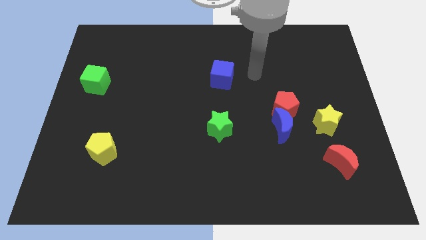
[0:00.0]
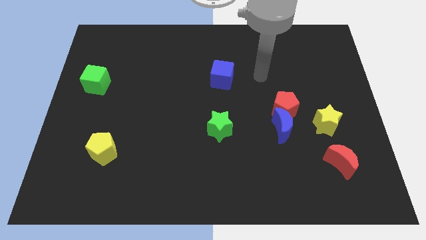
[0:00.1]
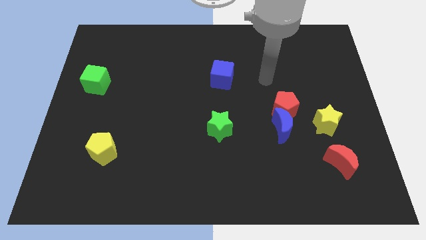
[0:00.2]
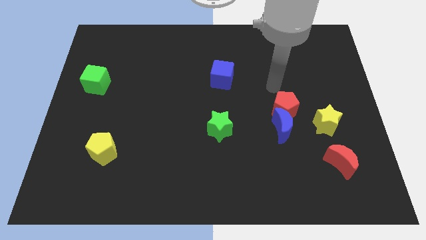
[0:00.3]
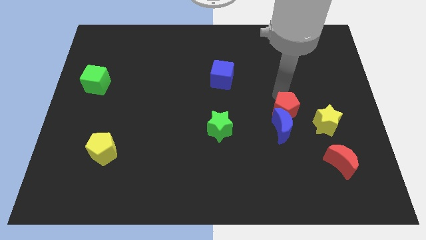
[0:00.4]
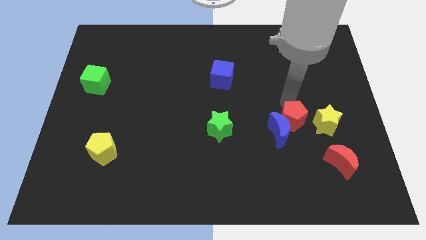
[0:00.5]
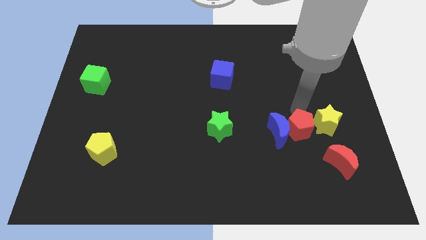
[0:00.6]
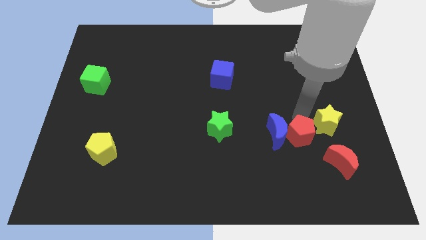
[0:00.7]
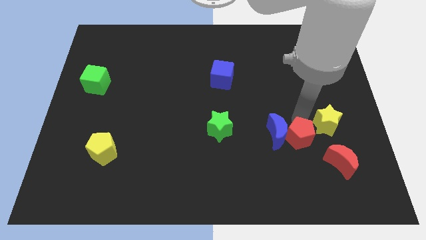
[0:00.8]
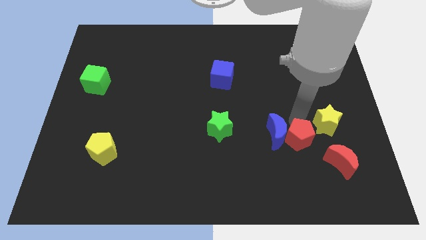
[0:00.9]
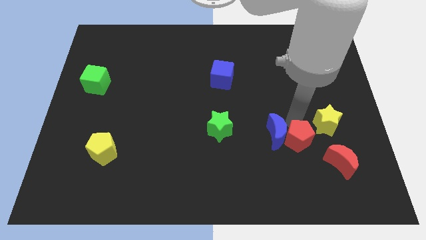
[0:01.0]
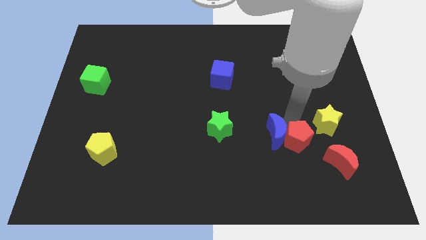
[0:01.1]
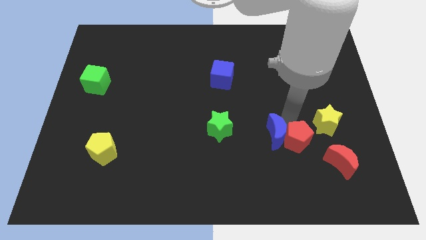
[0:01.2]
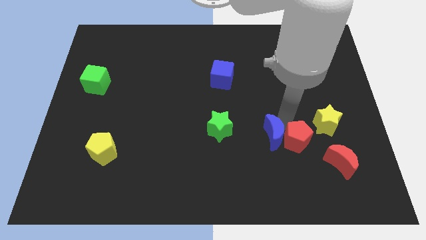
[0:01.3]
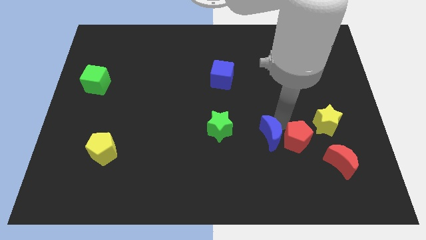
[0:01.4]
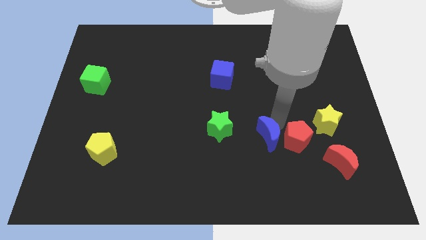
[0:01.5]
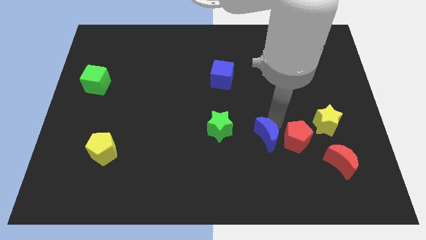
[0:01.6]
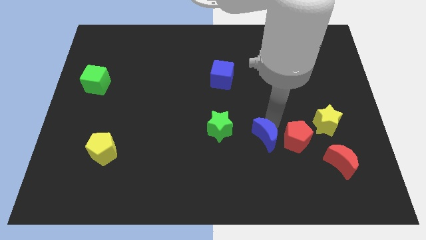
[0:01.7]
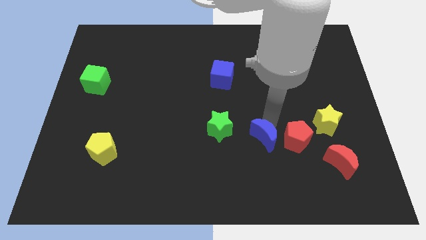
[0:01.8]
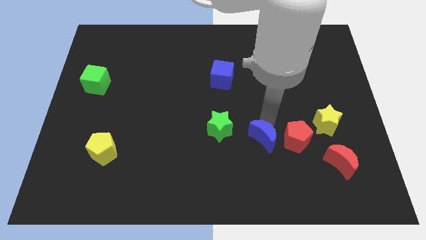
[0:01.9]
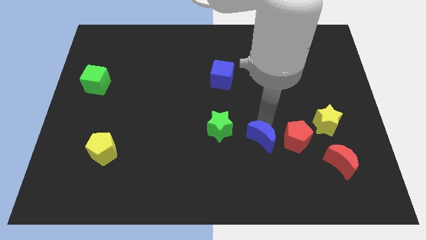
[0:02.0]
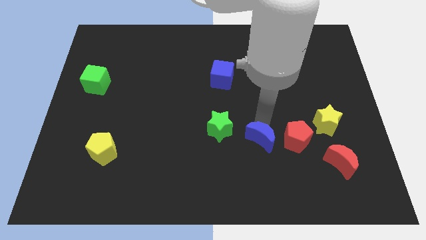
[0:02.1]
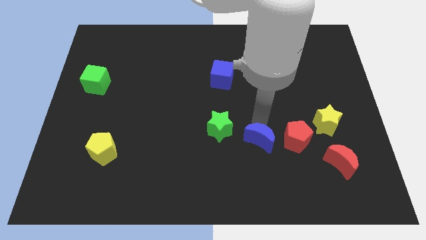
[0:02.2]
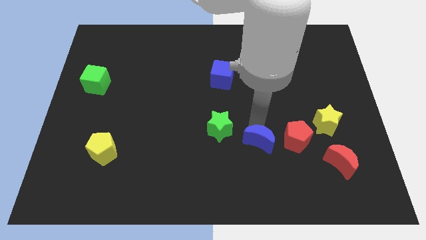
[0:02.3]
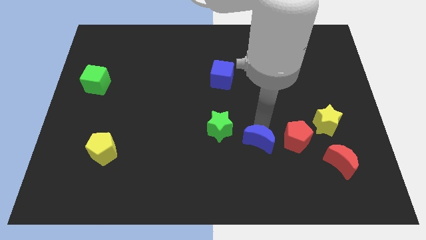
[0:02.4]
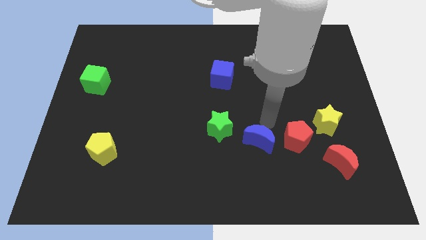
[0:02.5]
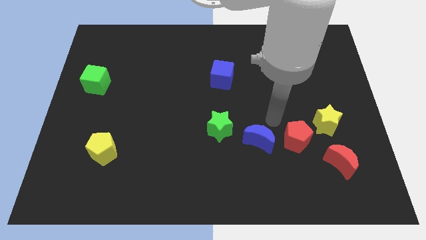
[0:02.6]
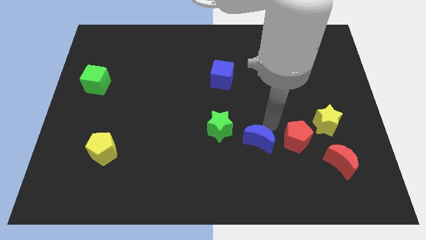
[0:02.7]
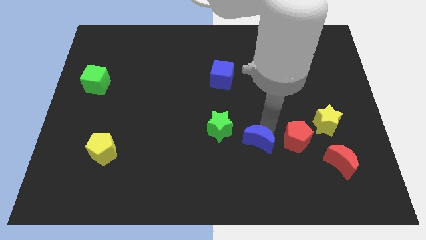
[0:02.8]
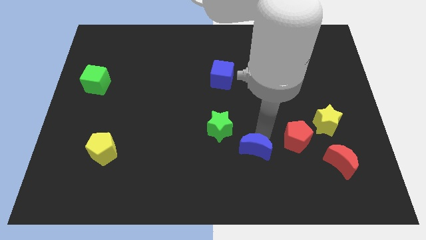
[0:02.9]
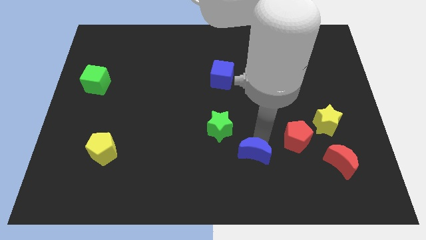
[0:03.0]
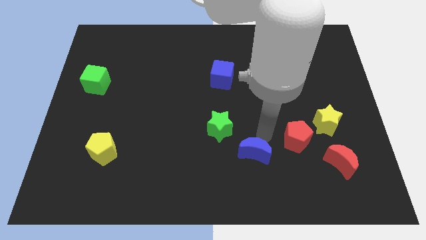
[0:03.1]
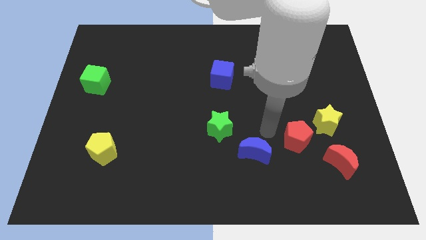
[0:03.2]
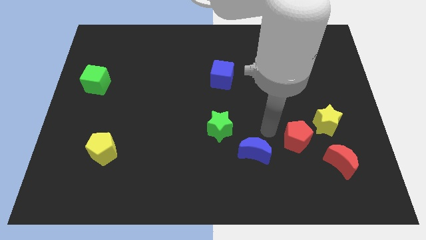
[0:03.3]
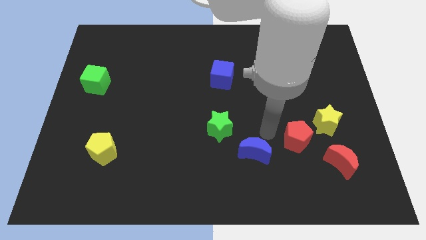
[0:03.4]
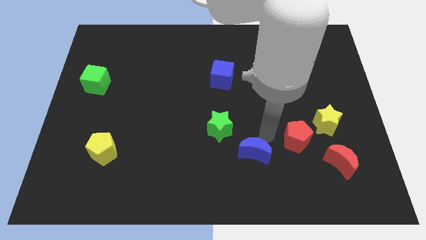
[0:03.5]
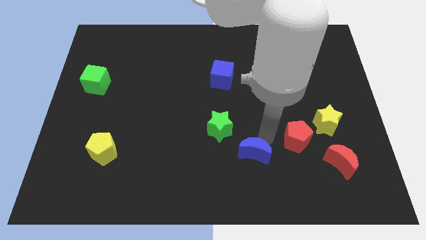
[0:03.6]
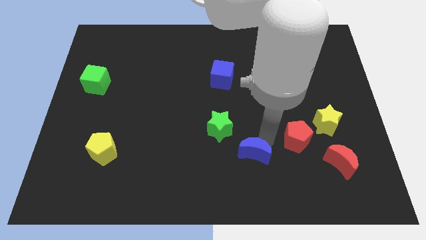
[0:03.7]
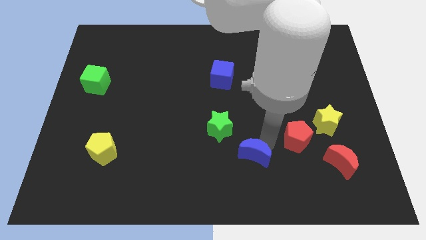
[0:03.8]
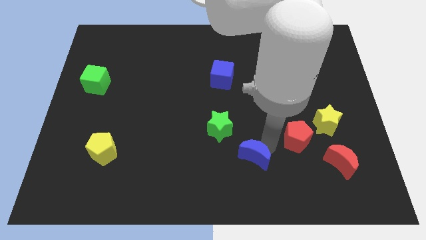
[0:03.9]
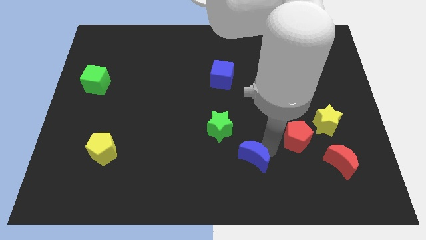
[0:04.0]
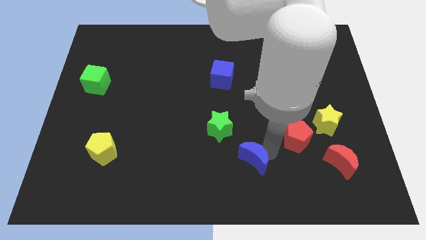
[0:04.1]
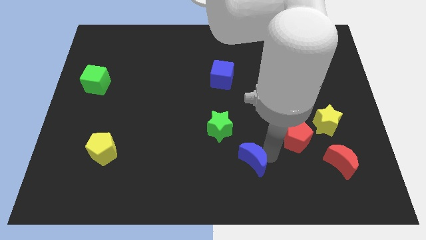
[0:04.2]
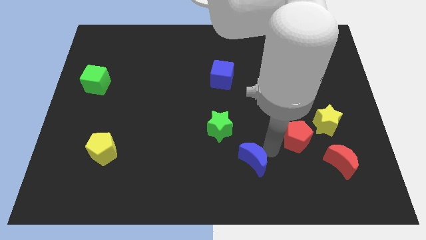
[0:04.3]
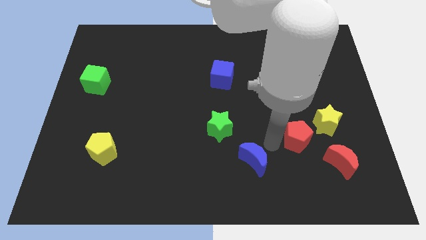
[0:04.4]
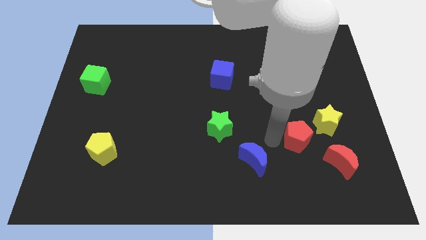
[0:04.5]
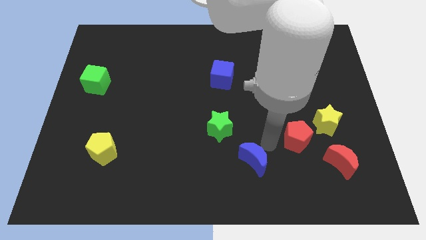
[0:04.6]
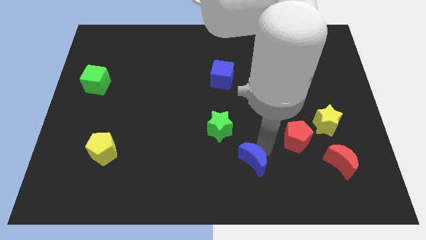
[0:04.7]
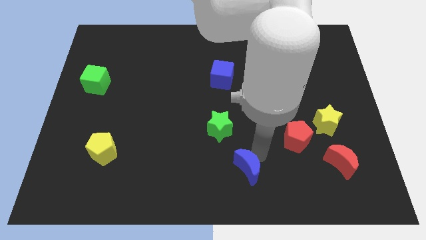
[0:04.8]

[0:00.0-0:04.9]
slide the blue moon to the bottom

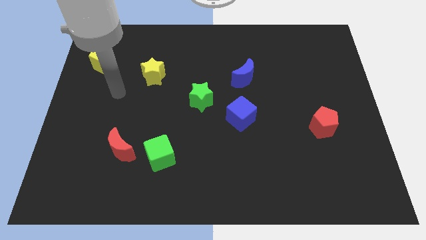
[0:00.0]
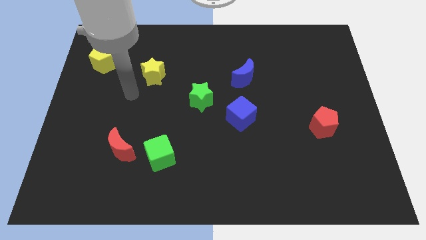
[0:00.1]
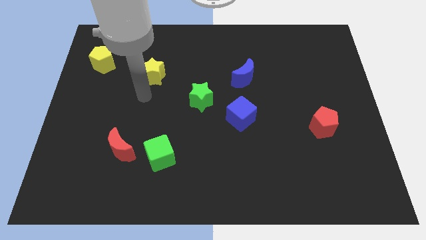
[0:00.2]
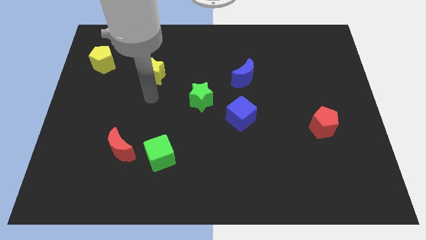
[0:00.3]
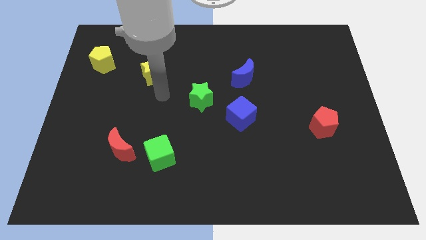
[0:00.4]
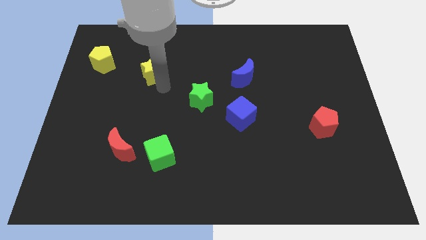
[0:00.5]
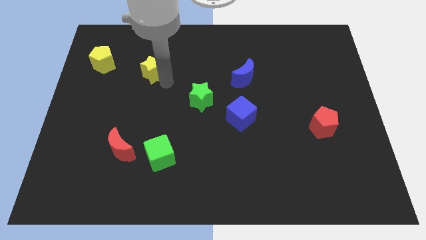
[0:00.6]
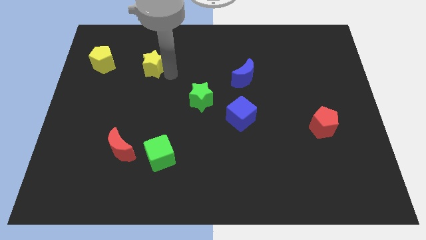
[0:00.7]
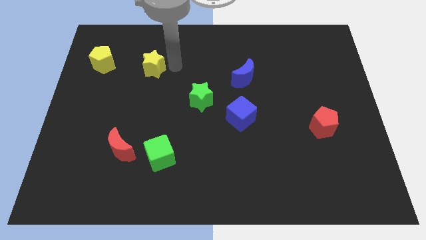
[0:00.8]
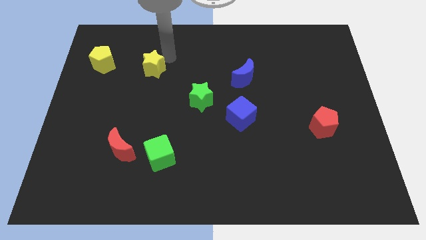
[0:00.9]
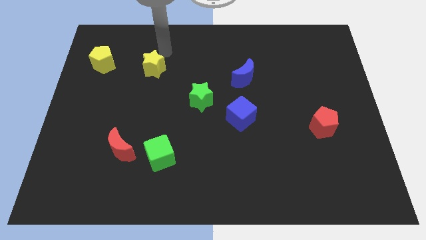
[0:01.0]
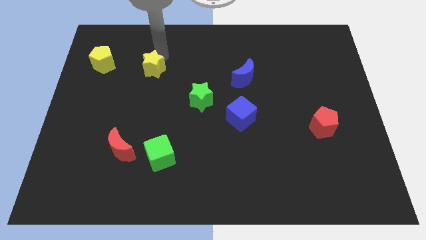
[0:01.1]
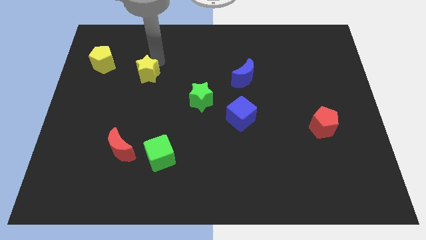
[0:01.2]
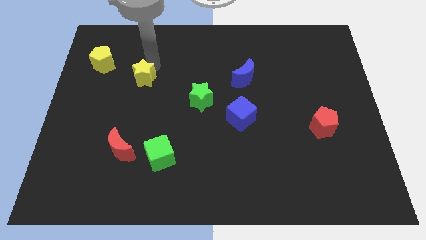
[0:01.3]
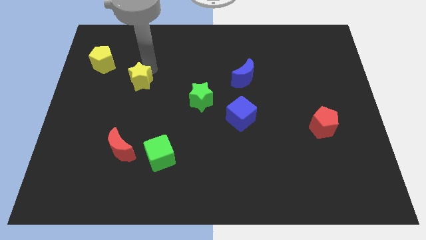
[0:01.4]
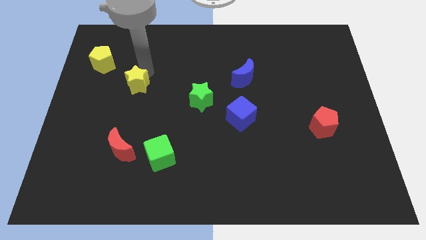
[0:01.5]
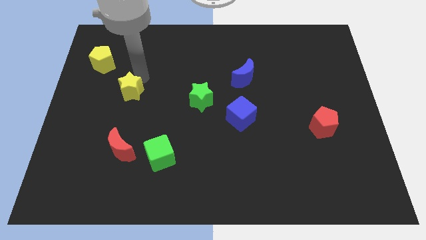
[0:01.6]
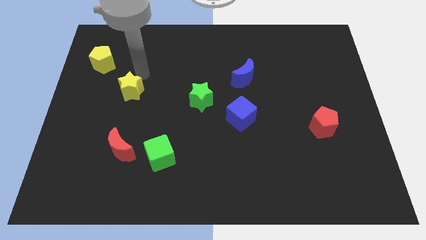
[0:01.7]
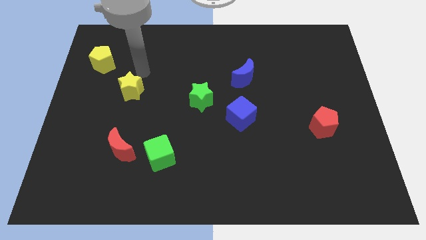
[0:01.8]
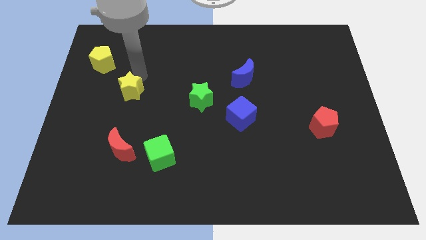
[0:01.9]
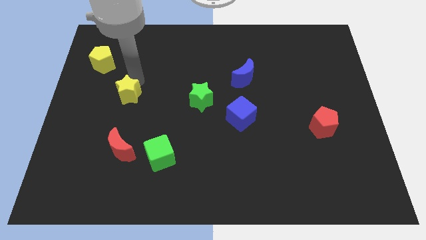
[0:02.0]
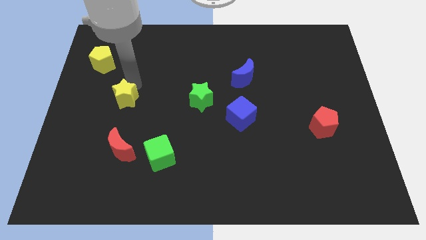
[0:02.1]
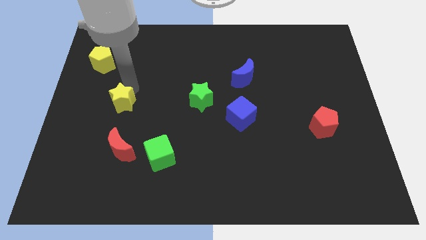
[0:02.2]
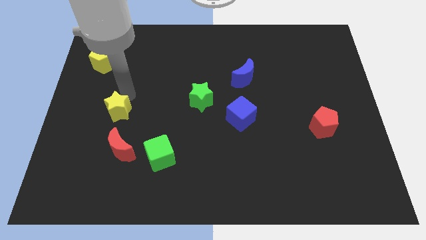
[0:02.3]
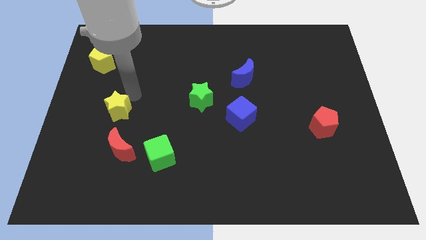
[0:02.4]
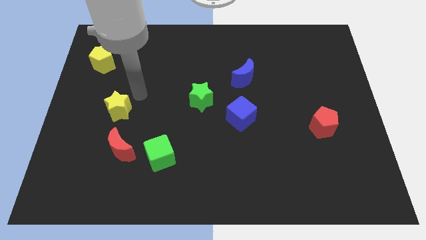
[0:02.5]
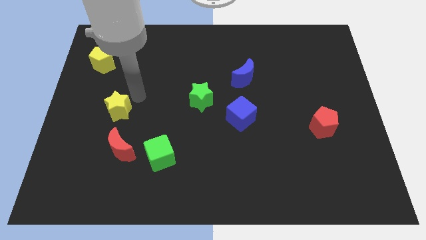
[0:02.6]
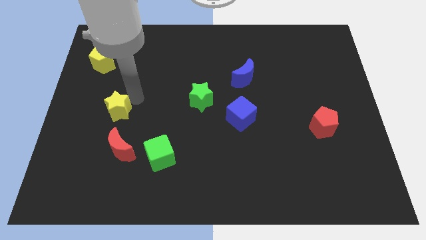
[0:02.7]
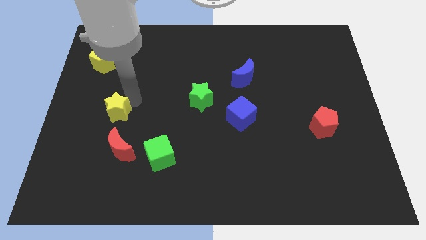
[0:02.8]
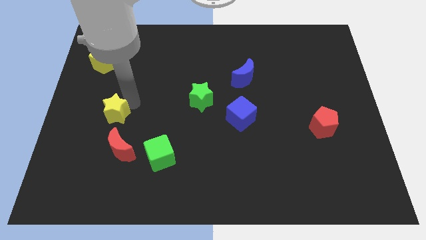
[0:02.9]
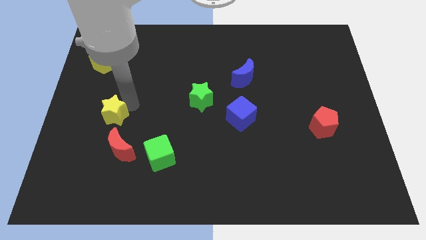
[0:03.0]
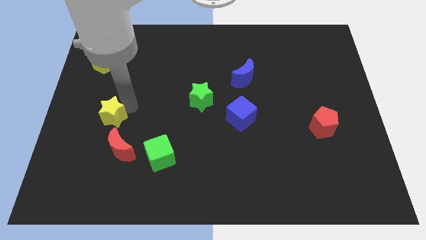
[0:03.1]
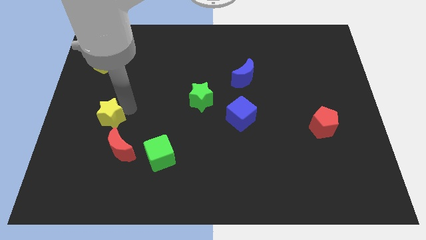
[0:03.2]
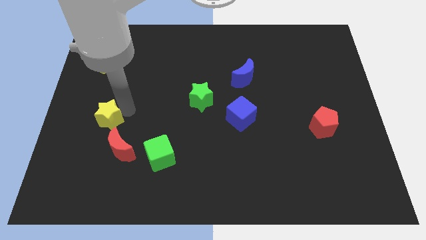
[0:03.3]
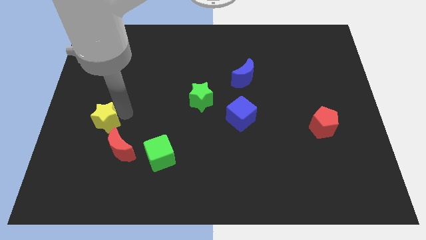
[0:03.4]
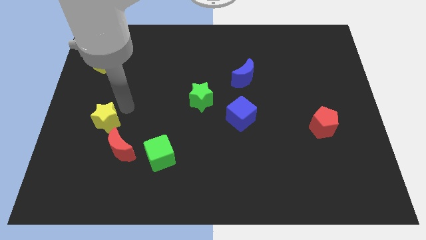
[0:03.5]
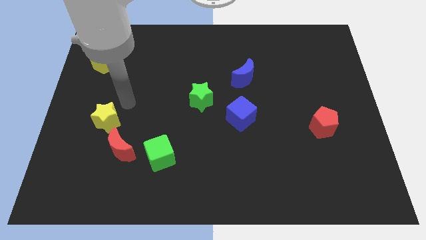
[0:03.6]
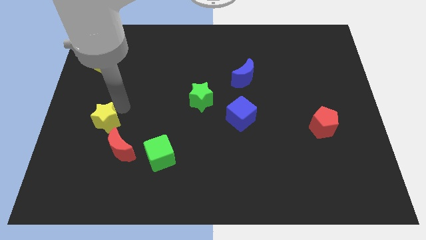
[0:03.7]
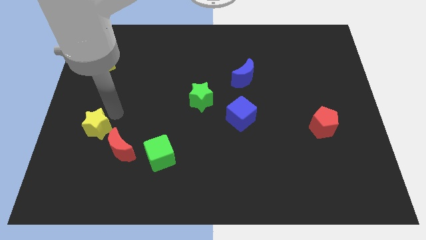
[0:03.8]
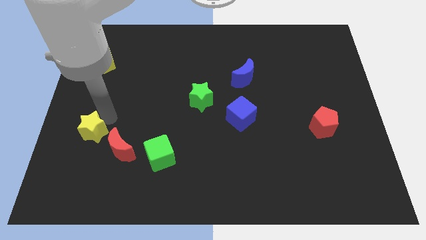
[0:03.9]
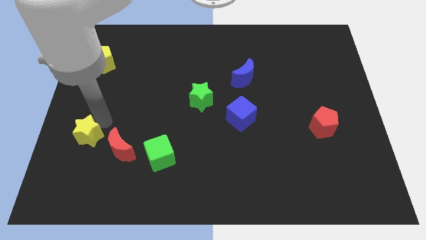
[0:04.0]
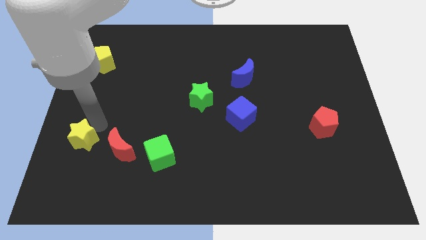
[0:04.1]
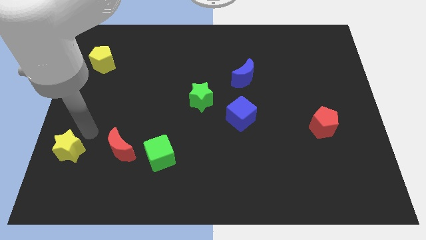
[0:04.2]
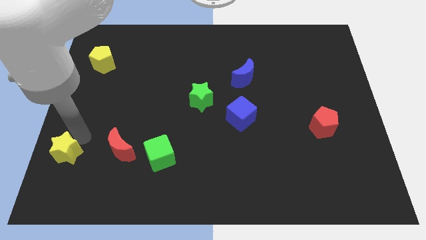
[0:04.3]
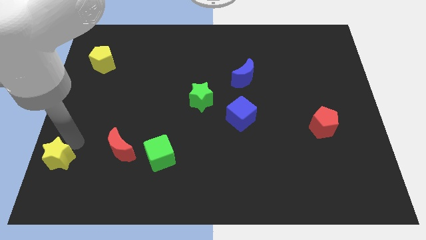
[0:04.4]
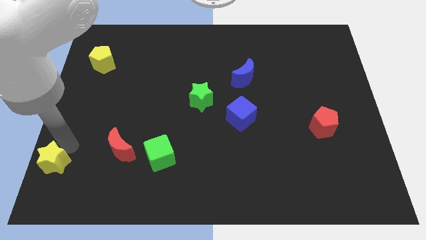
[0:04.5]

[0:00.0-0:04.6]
put the yellow star to the bottom left corner
